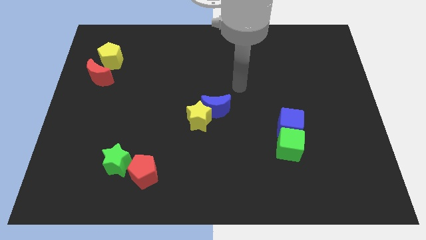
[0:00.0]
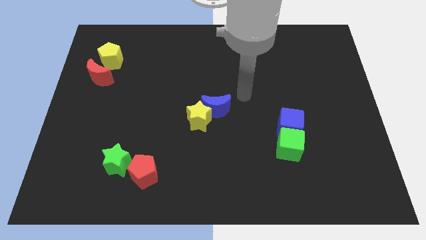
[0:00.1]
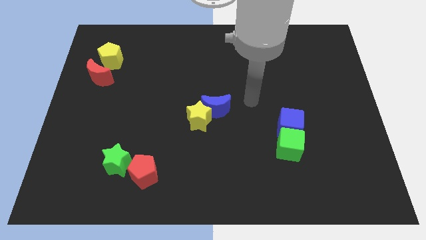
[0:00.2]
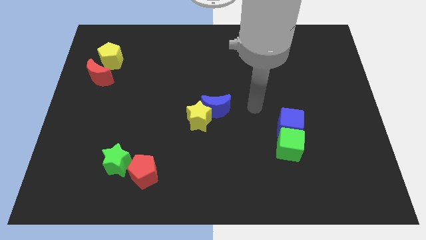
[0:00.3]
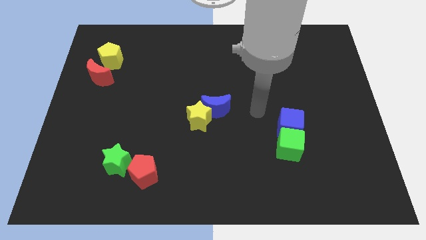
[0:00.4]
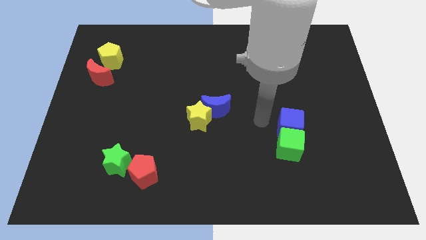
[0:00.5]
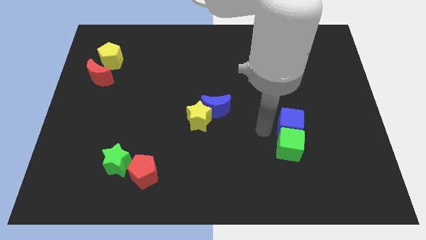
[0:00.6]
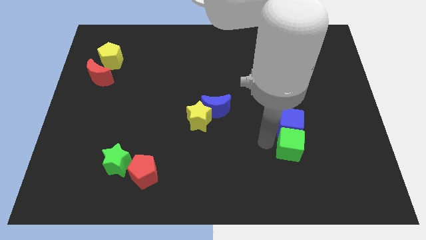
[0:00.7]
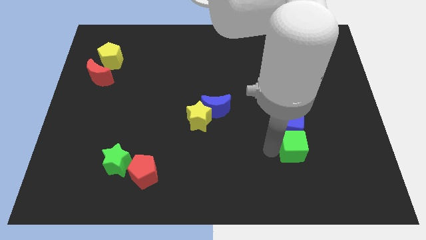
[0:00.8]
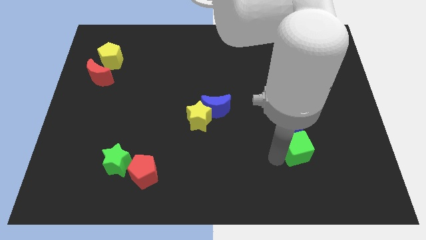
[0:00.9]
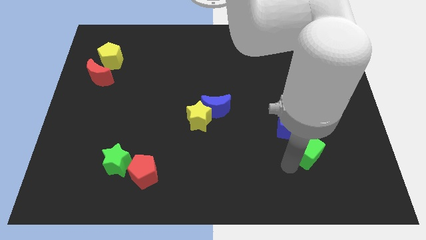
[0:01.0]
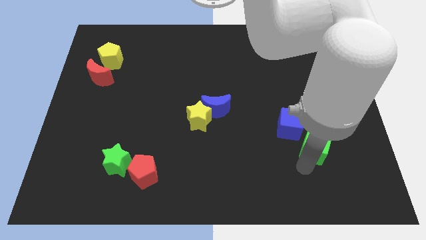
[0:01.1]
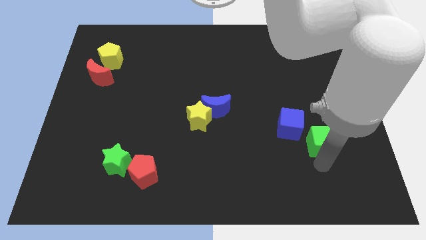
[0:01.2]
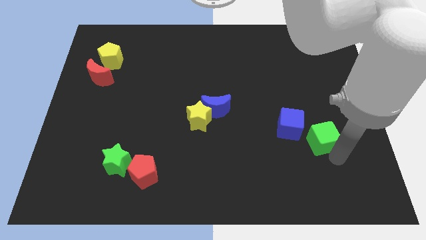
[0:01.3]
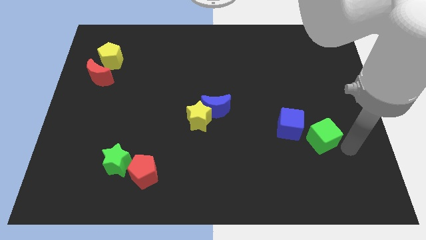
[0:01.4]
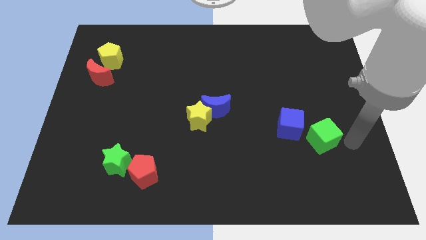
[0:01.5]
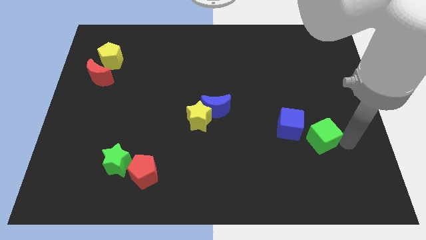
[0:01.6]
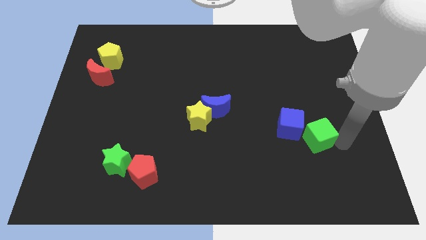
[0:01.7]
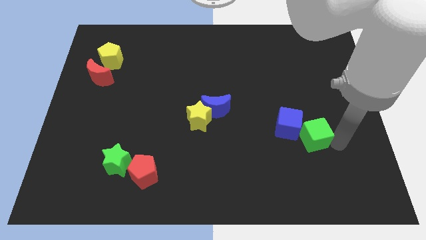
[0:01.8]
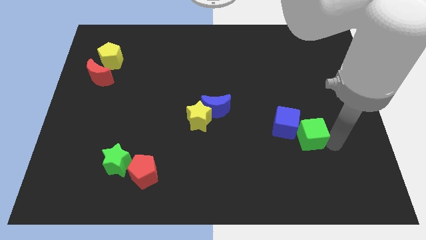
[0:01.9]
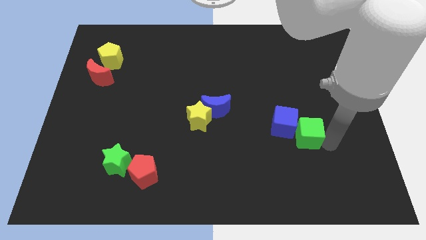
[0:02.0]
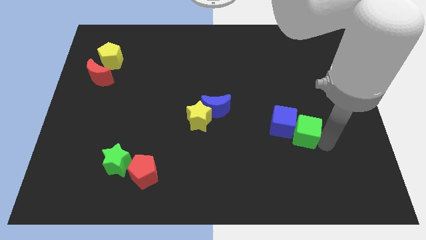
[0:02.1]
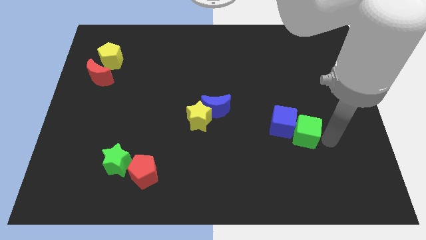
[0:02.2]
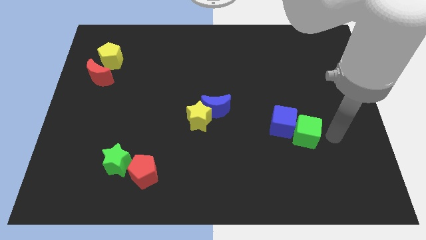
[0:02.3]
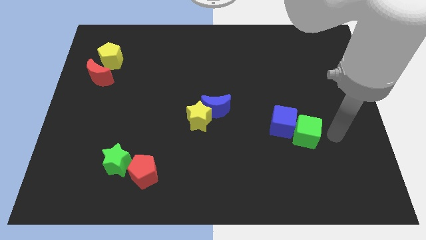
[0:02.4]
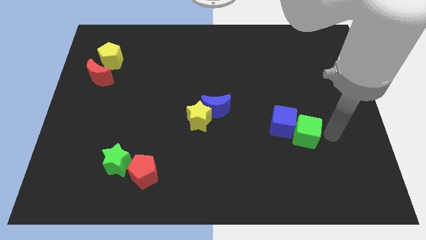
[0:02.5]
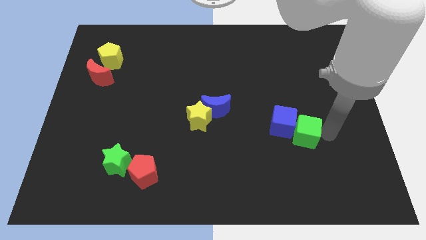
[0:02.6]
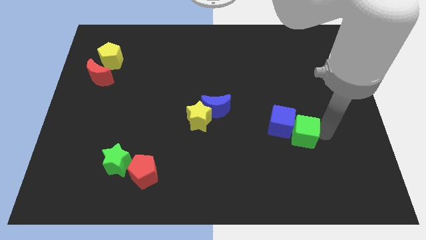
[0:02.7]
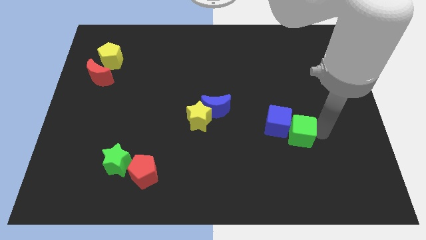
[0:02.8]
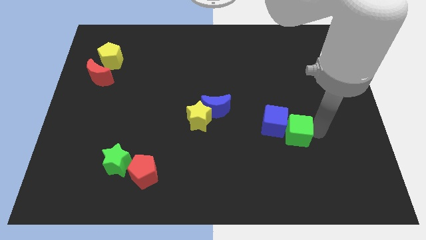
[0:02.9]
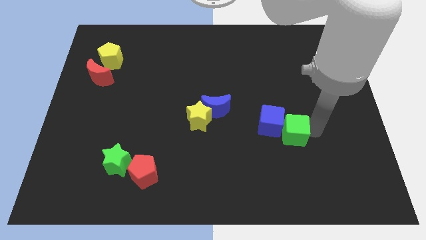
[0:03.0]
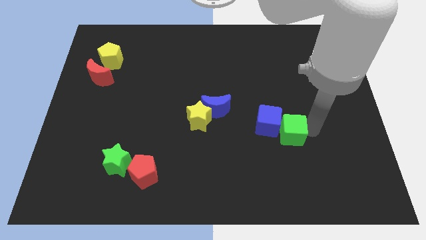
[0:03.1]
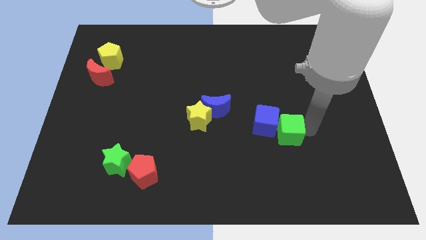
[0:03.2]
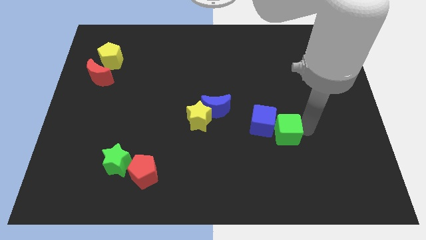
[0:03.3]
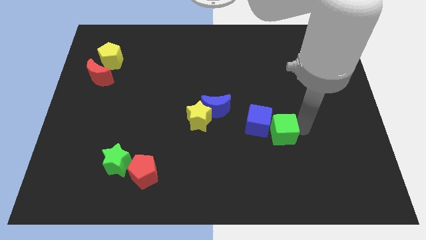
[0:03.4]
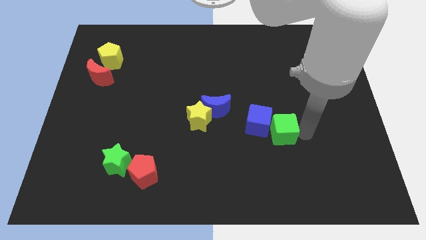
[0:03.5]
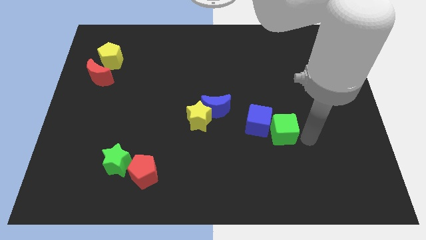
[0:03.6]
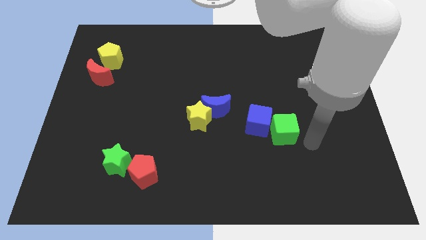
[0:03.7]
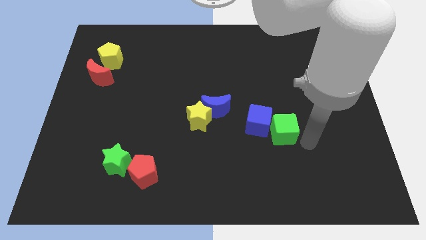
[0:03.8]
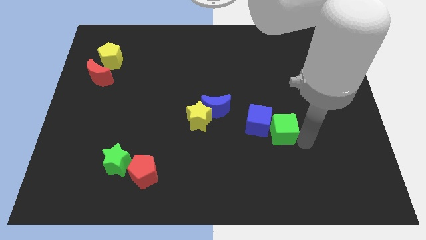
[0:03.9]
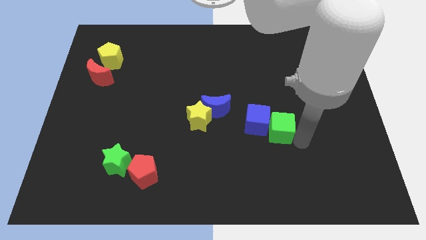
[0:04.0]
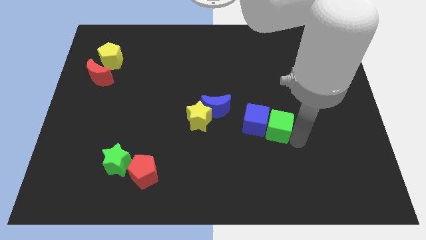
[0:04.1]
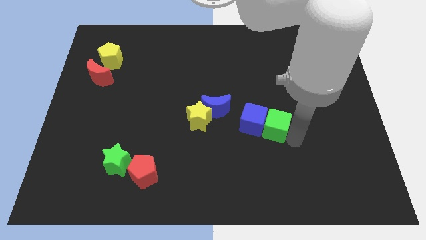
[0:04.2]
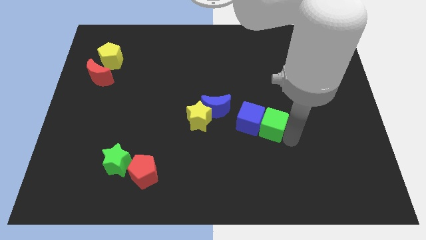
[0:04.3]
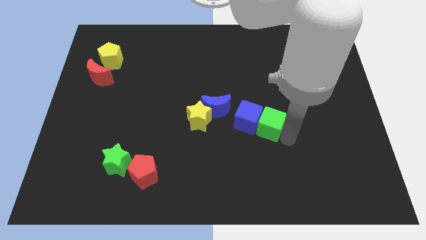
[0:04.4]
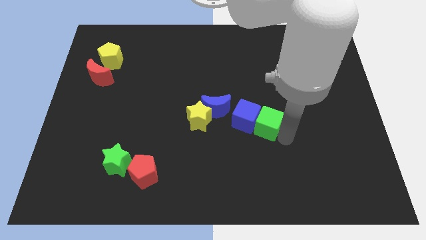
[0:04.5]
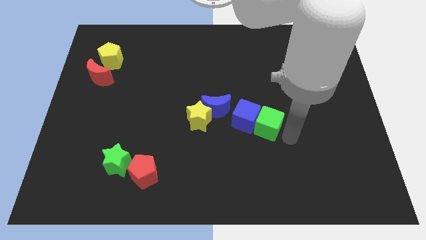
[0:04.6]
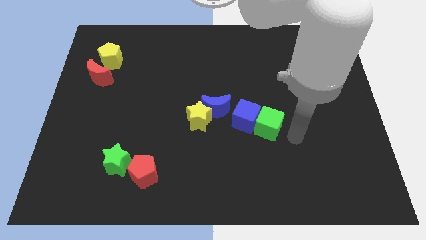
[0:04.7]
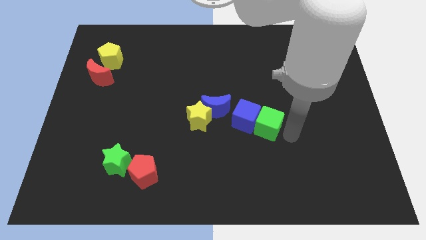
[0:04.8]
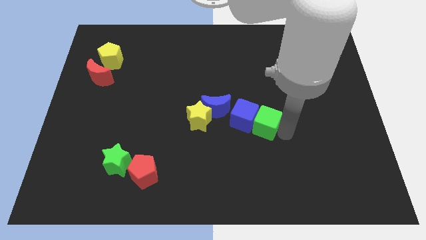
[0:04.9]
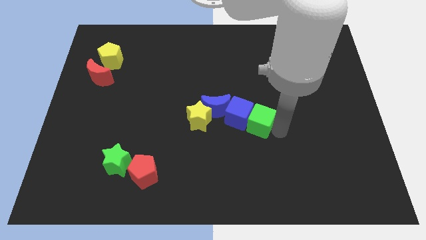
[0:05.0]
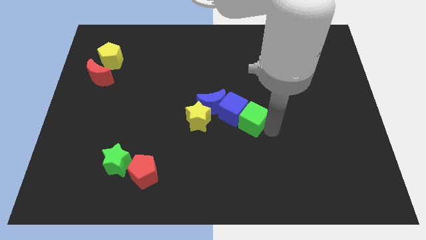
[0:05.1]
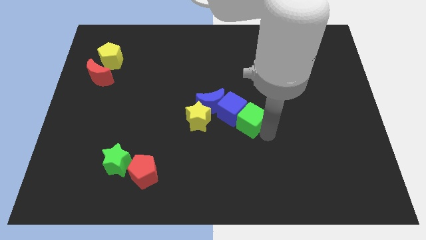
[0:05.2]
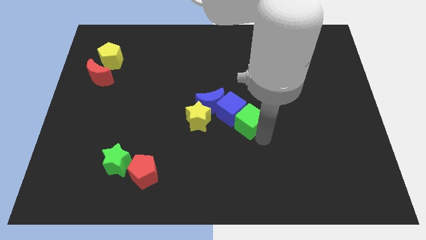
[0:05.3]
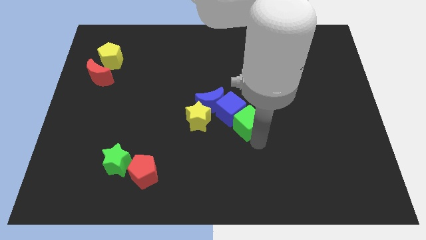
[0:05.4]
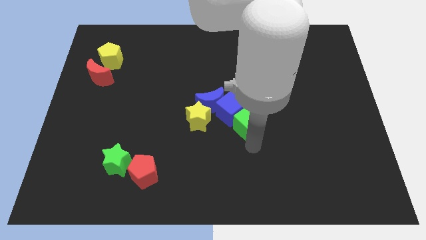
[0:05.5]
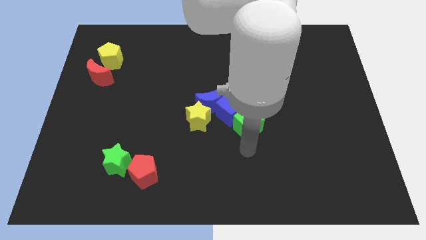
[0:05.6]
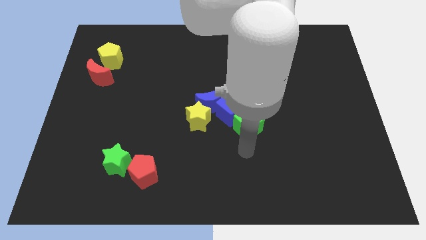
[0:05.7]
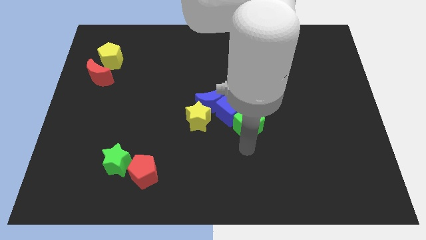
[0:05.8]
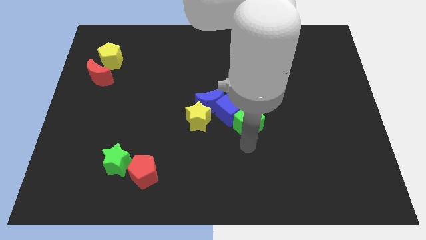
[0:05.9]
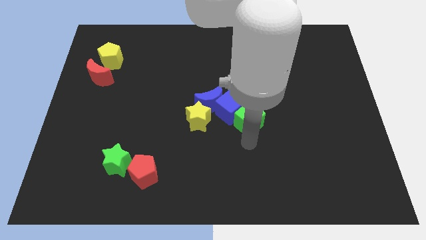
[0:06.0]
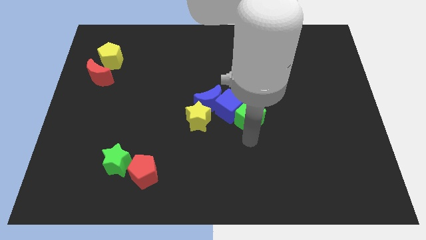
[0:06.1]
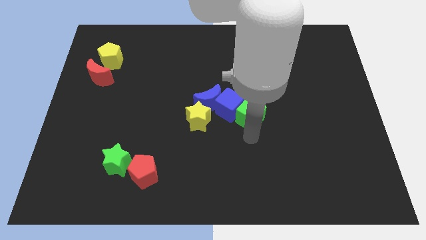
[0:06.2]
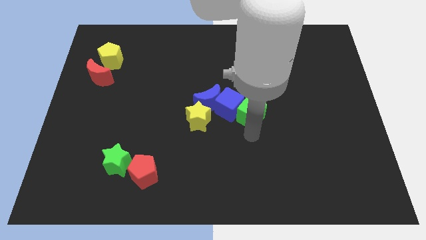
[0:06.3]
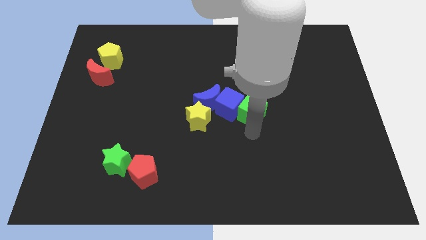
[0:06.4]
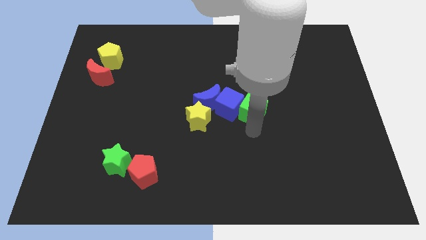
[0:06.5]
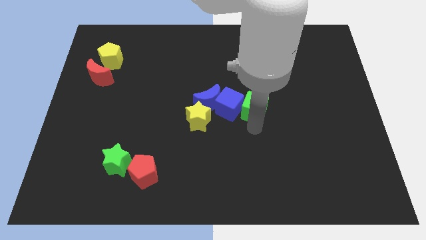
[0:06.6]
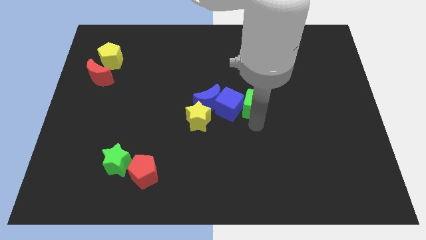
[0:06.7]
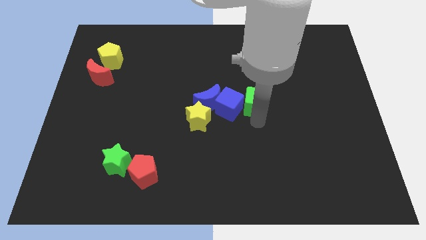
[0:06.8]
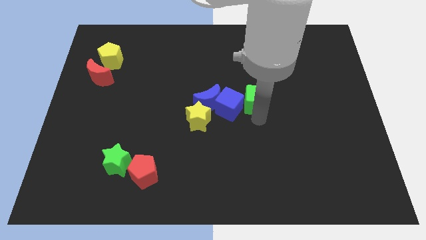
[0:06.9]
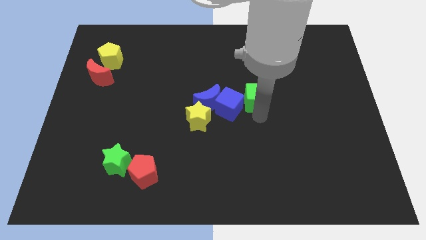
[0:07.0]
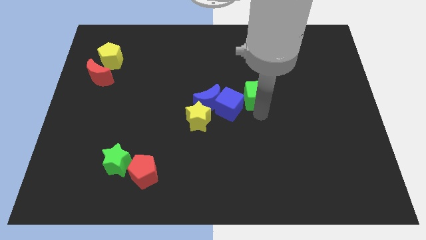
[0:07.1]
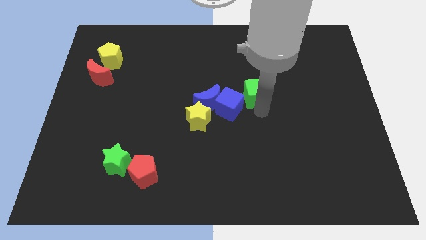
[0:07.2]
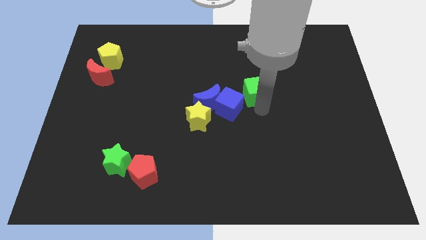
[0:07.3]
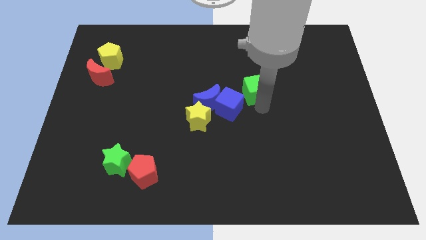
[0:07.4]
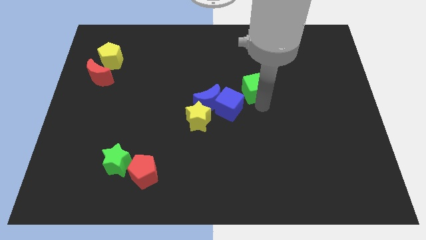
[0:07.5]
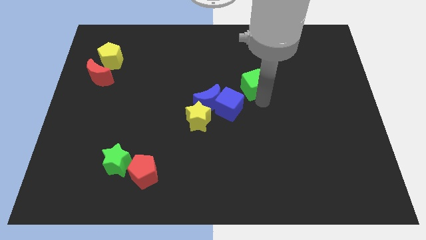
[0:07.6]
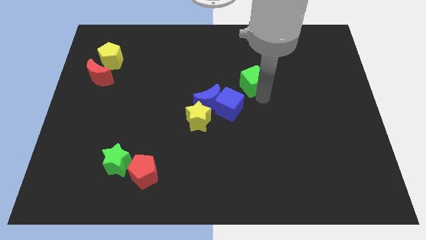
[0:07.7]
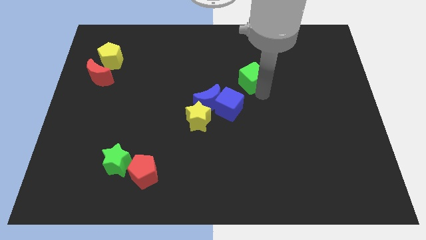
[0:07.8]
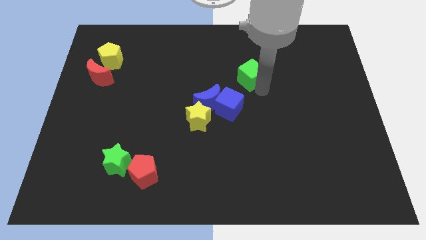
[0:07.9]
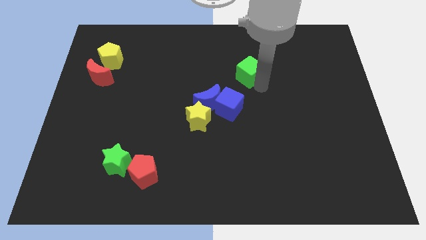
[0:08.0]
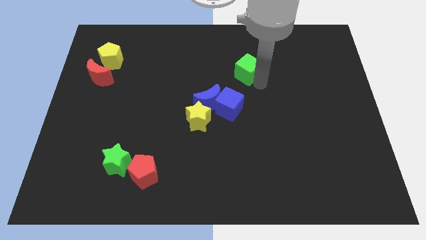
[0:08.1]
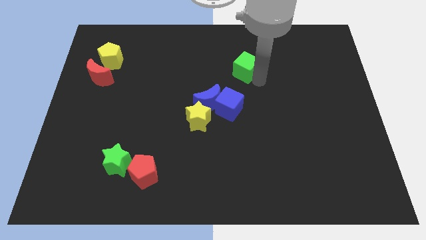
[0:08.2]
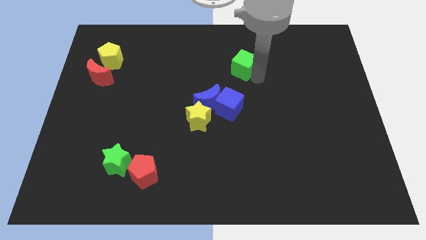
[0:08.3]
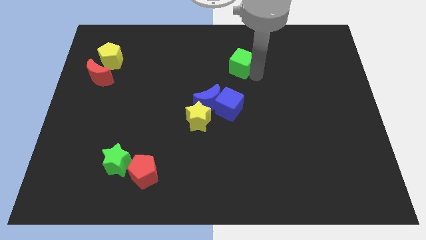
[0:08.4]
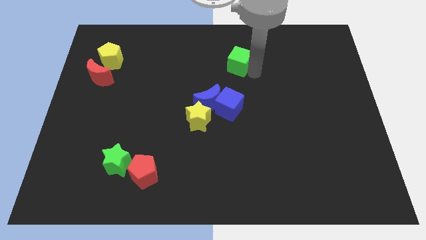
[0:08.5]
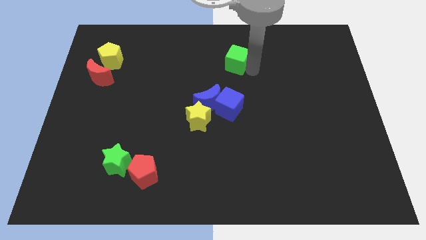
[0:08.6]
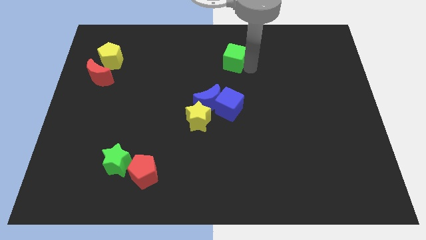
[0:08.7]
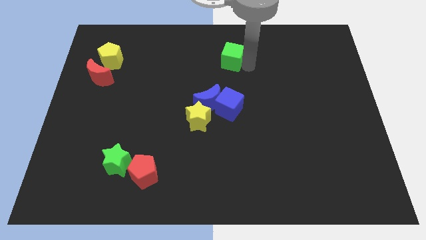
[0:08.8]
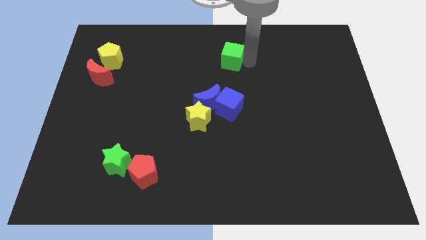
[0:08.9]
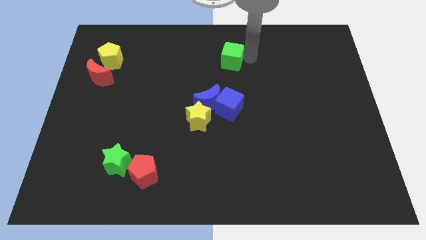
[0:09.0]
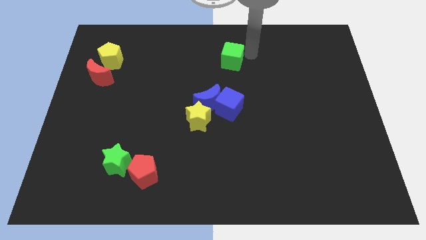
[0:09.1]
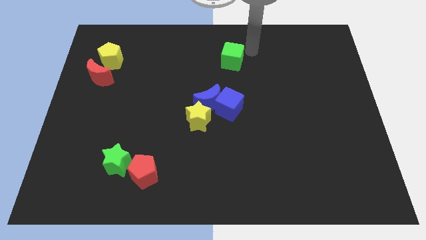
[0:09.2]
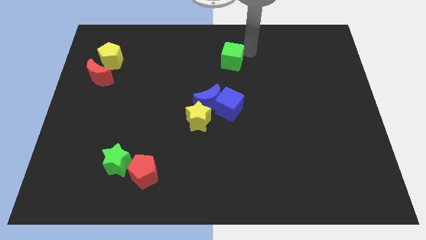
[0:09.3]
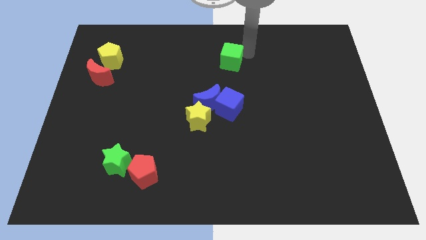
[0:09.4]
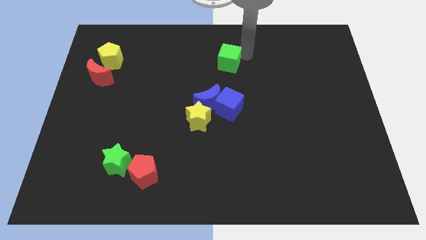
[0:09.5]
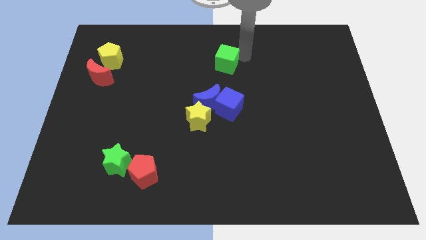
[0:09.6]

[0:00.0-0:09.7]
push the green cube above the blue moon
